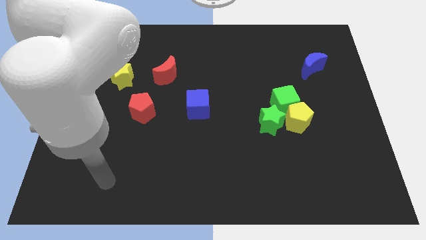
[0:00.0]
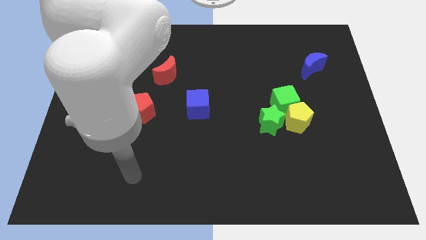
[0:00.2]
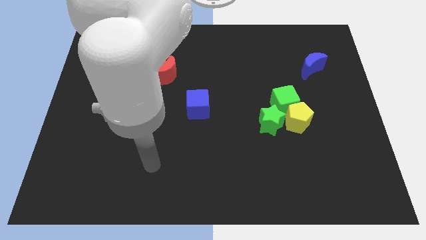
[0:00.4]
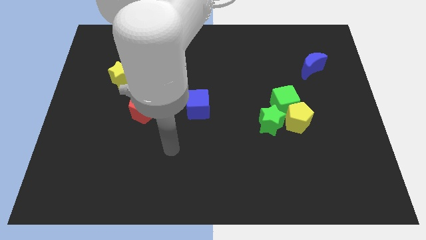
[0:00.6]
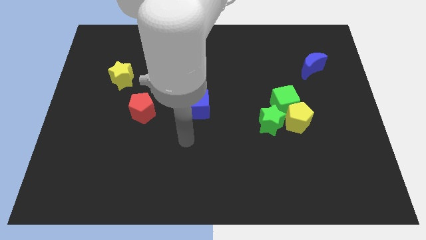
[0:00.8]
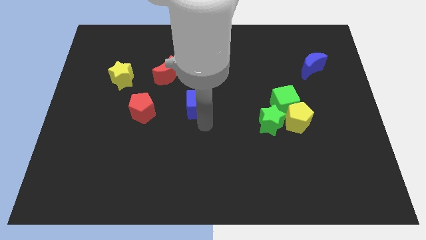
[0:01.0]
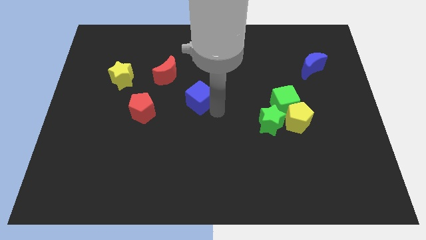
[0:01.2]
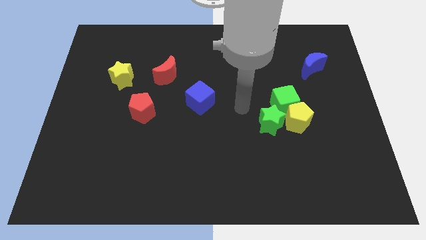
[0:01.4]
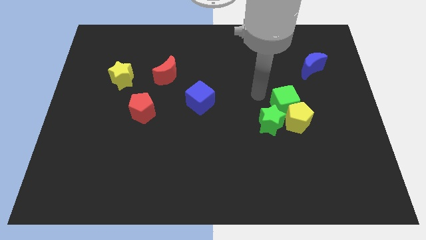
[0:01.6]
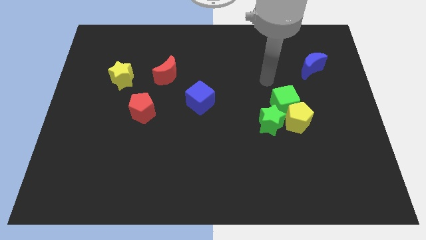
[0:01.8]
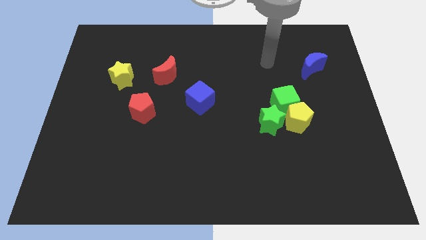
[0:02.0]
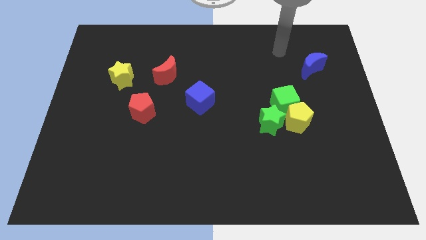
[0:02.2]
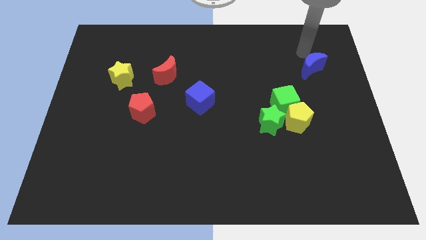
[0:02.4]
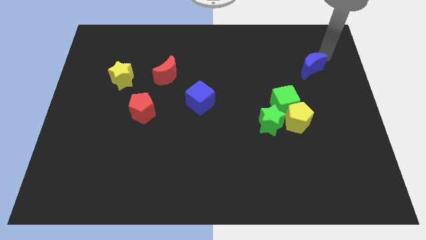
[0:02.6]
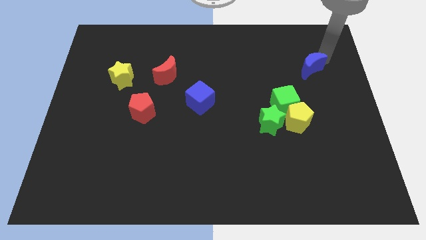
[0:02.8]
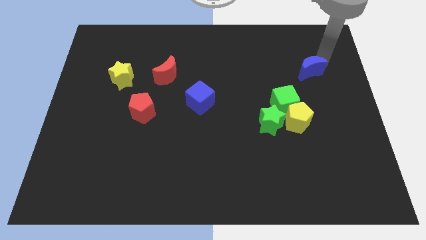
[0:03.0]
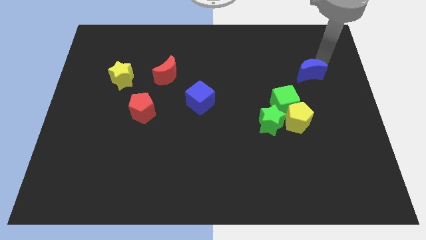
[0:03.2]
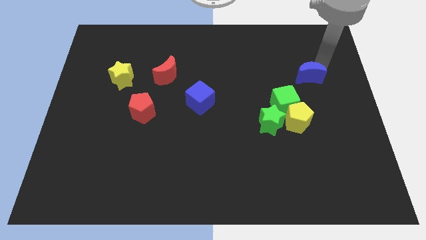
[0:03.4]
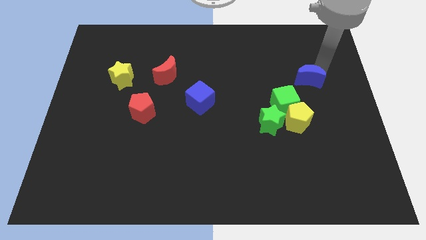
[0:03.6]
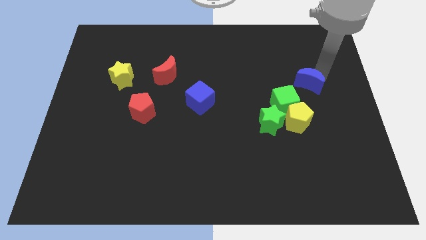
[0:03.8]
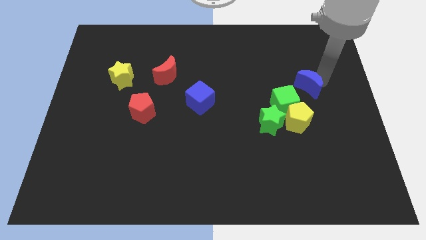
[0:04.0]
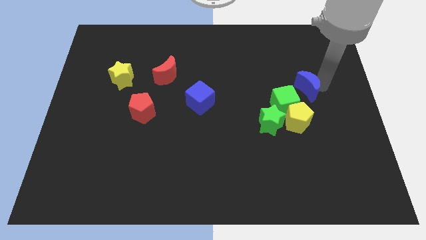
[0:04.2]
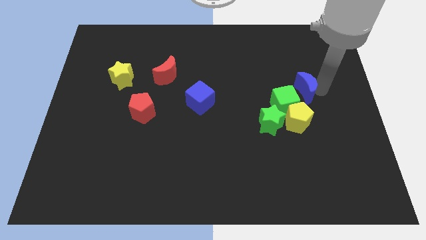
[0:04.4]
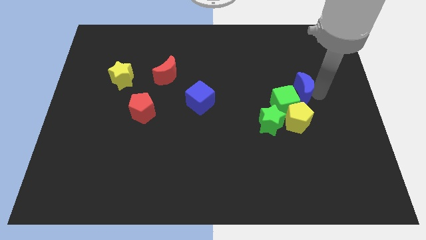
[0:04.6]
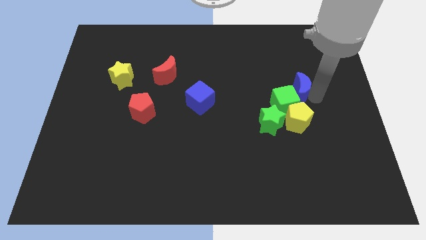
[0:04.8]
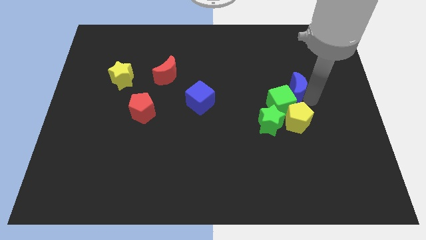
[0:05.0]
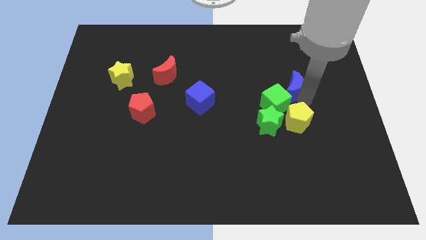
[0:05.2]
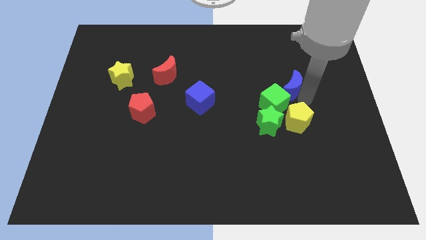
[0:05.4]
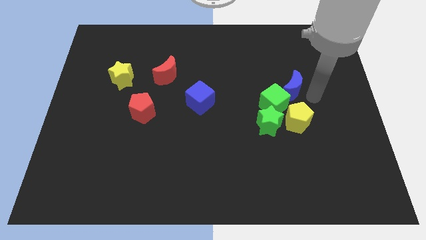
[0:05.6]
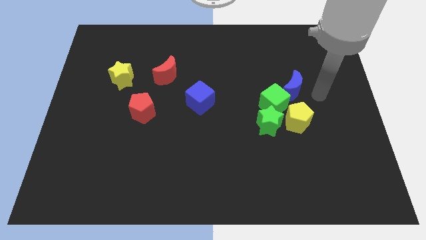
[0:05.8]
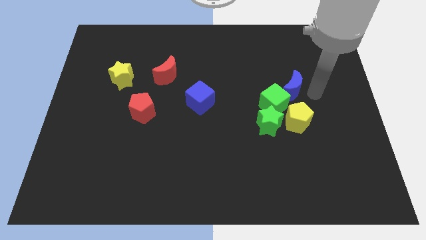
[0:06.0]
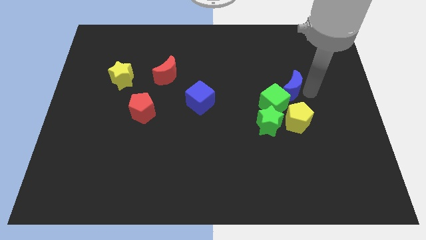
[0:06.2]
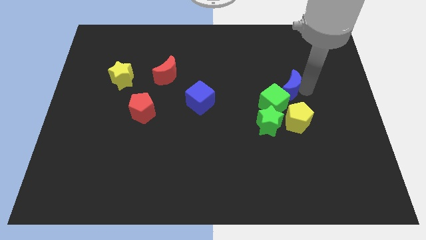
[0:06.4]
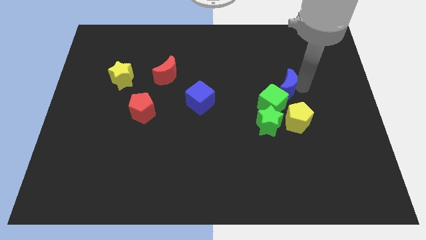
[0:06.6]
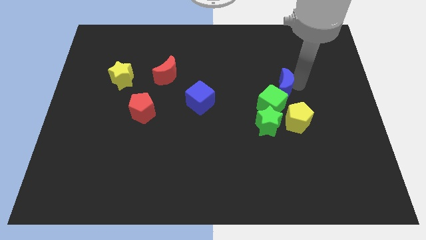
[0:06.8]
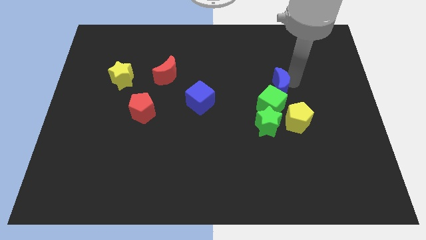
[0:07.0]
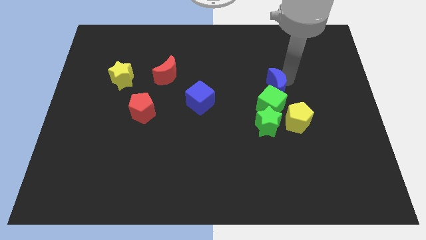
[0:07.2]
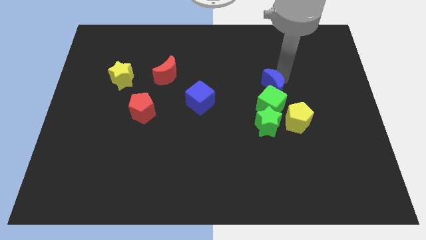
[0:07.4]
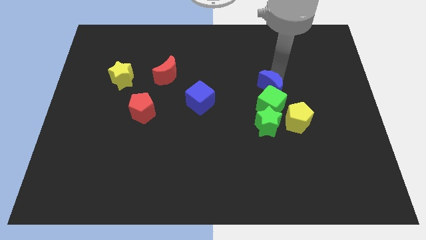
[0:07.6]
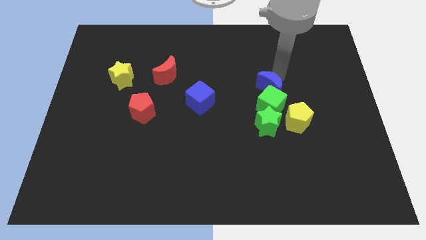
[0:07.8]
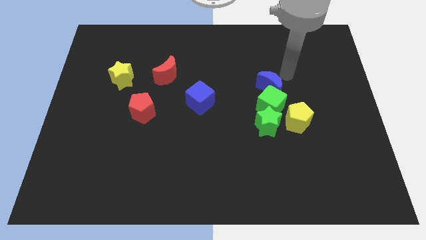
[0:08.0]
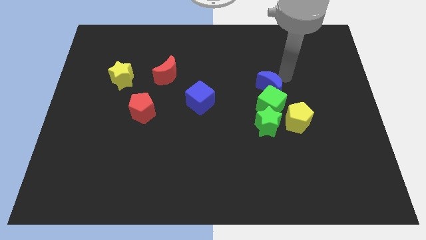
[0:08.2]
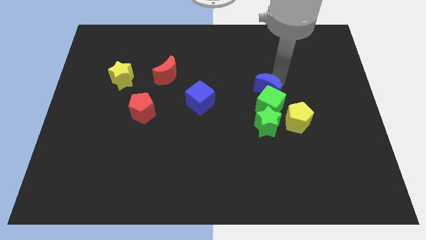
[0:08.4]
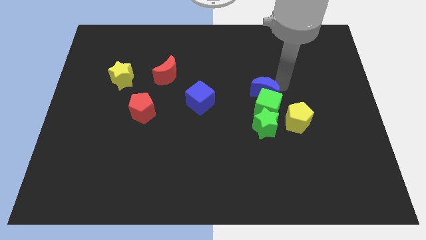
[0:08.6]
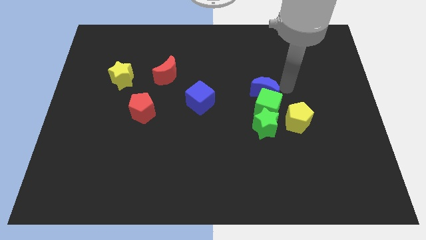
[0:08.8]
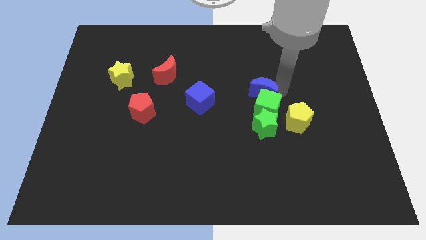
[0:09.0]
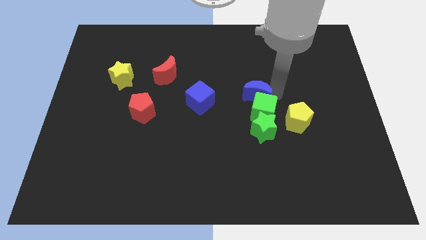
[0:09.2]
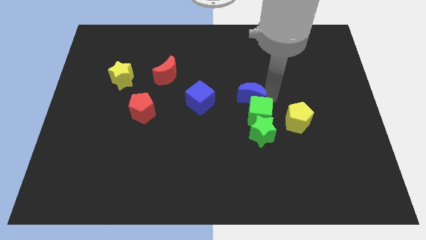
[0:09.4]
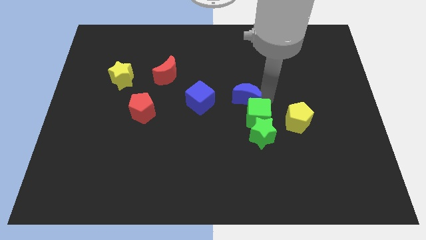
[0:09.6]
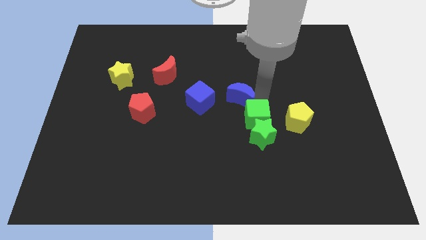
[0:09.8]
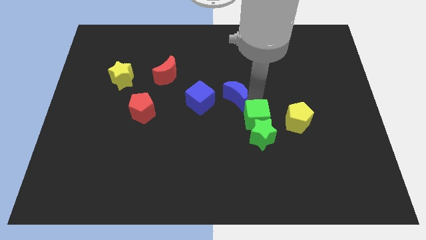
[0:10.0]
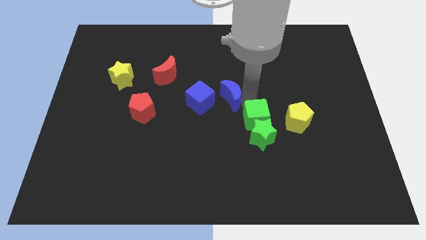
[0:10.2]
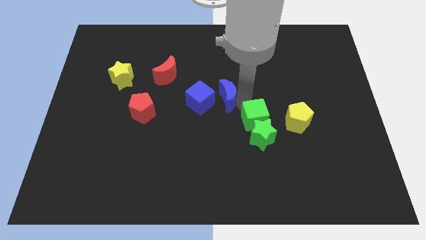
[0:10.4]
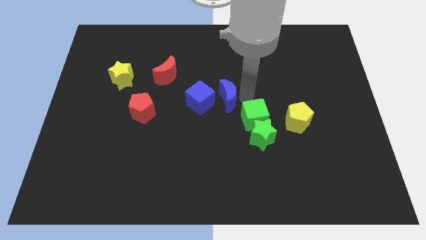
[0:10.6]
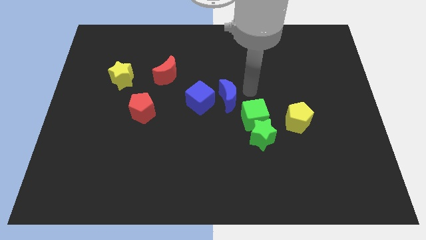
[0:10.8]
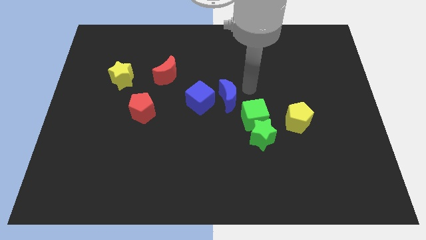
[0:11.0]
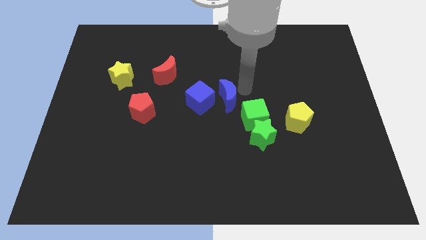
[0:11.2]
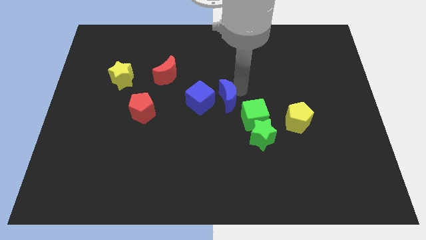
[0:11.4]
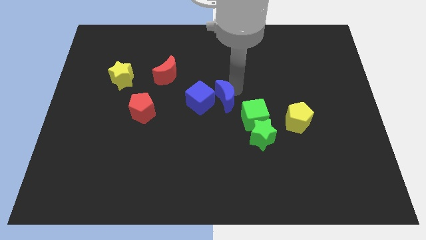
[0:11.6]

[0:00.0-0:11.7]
slide the blue moon to the blue cube
